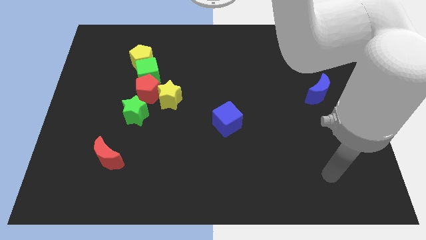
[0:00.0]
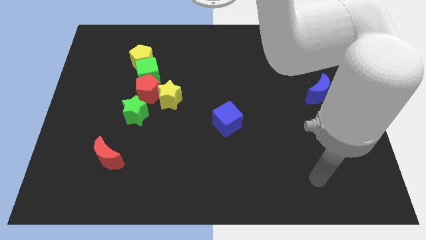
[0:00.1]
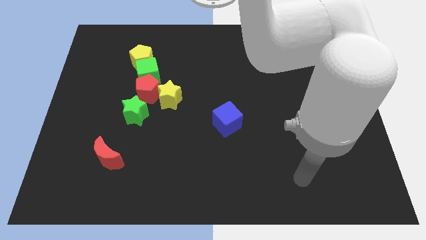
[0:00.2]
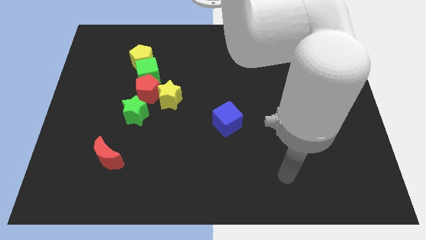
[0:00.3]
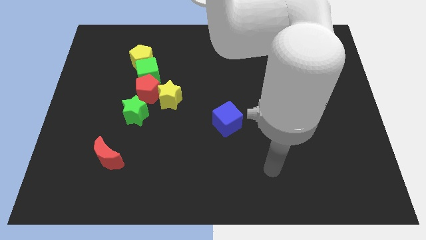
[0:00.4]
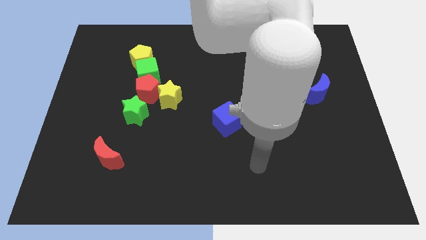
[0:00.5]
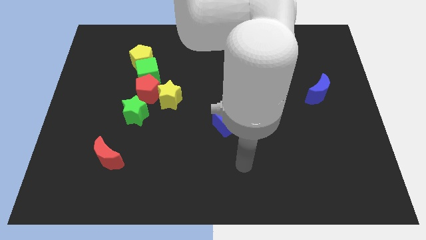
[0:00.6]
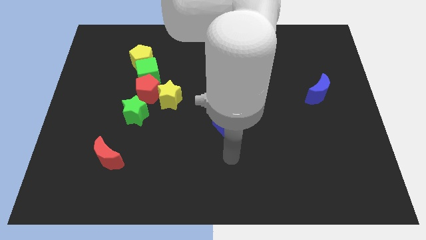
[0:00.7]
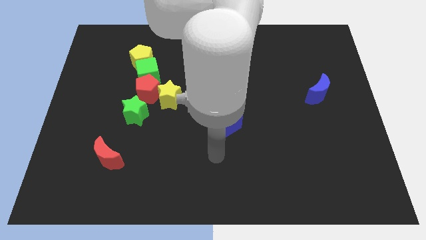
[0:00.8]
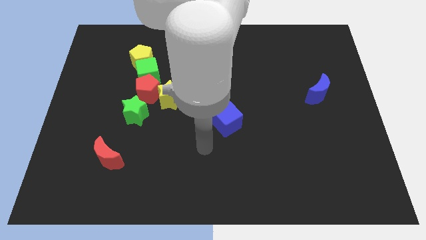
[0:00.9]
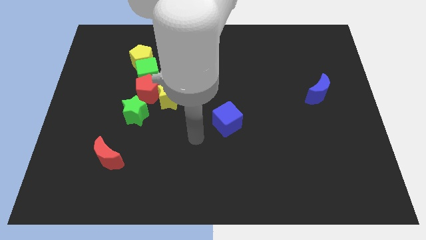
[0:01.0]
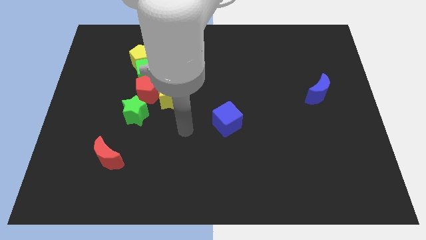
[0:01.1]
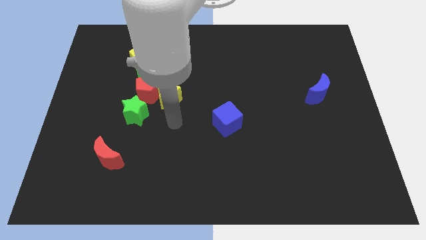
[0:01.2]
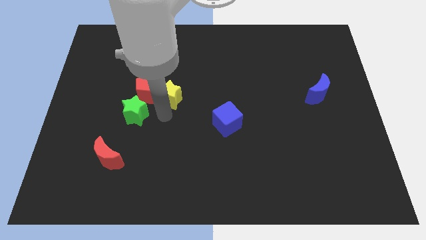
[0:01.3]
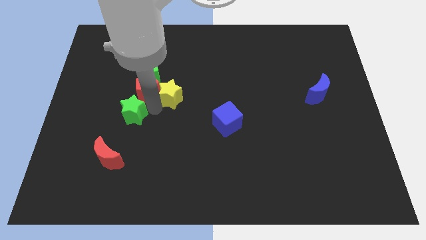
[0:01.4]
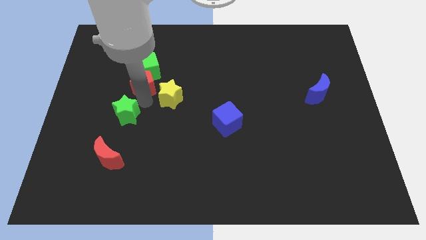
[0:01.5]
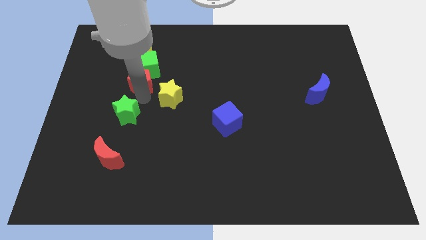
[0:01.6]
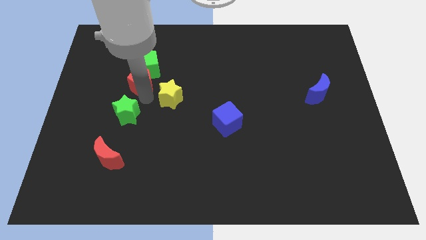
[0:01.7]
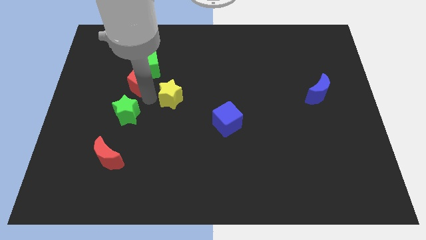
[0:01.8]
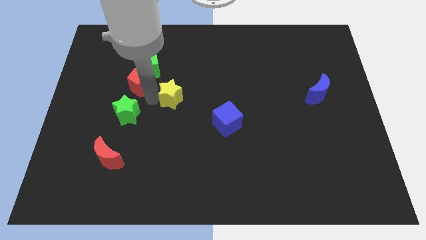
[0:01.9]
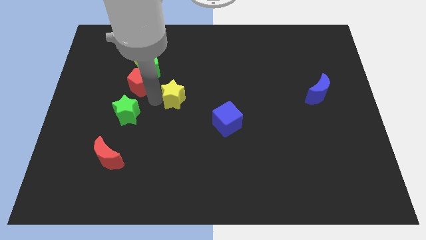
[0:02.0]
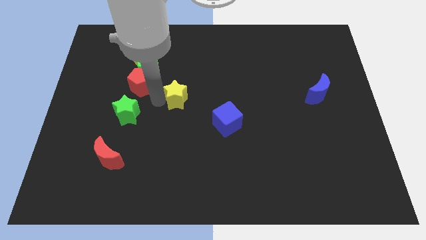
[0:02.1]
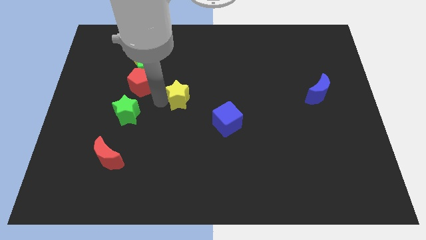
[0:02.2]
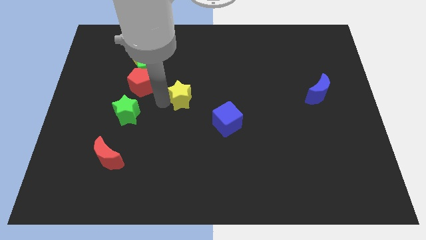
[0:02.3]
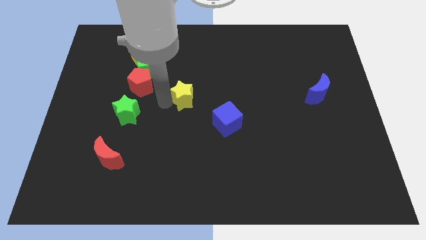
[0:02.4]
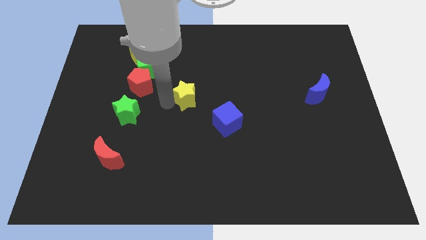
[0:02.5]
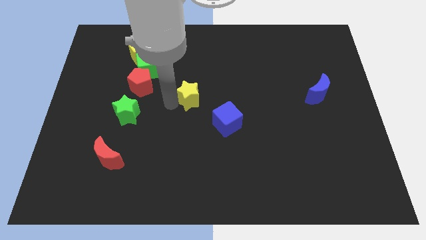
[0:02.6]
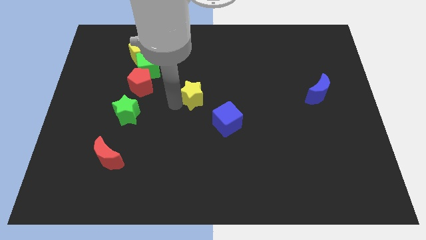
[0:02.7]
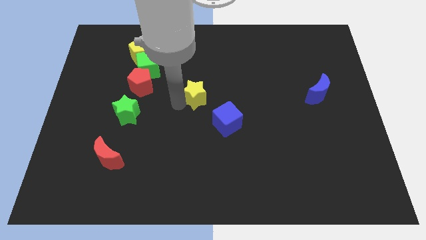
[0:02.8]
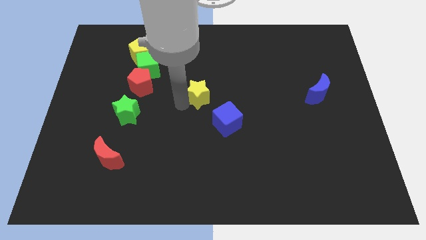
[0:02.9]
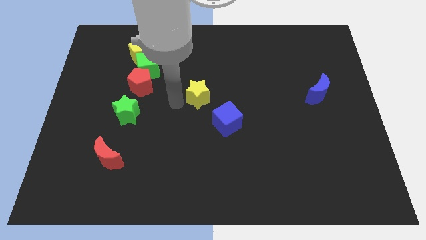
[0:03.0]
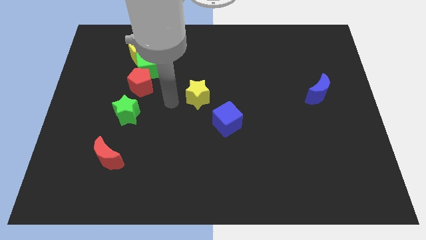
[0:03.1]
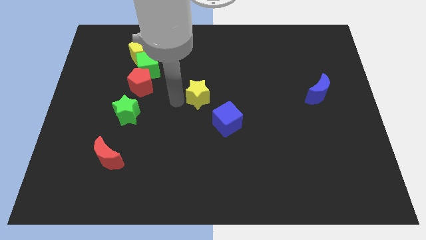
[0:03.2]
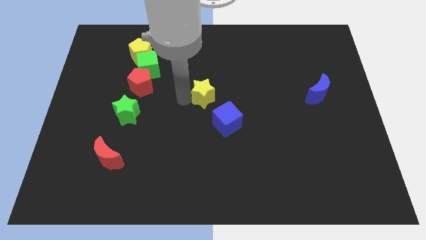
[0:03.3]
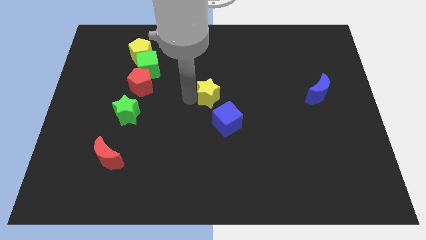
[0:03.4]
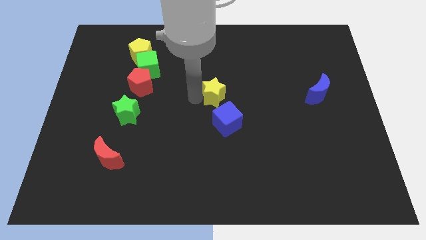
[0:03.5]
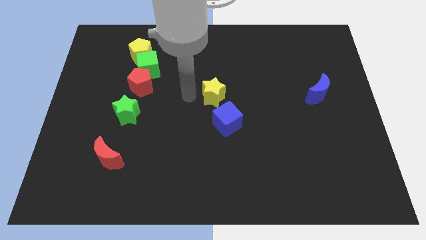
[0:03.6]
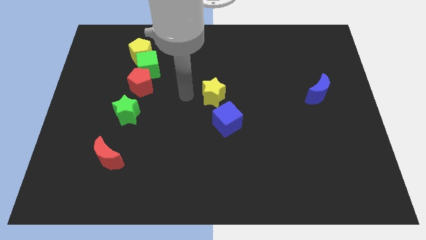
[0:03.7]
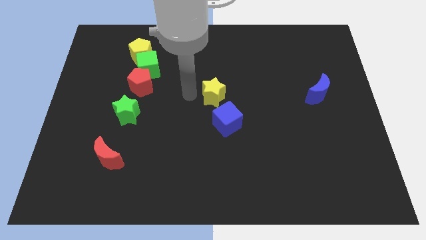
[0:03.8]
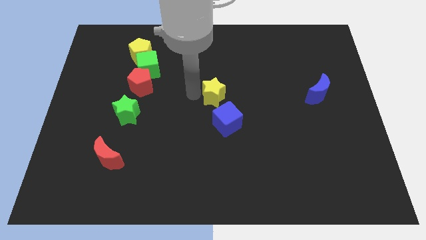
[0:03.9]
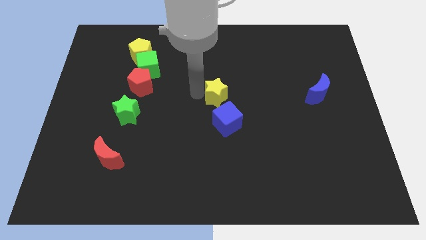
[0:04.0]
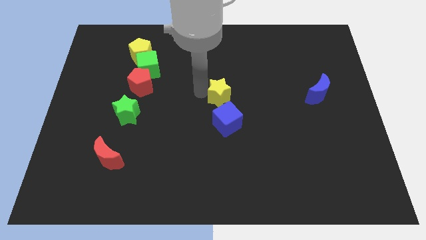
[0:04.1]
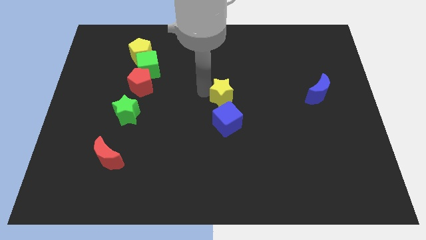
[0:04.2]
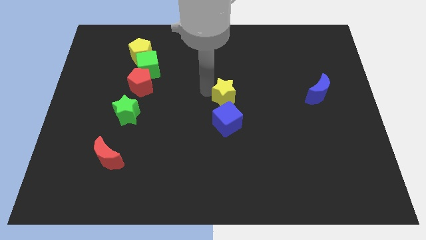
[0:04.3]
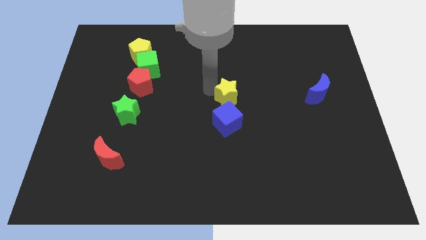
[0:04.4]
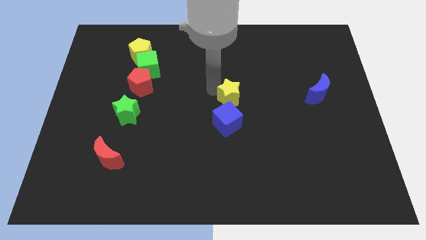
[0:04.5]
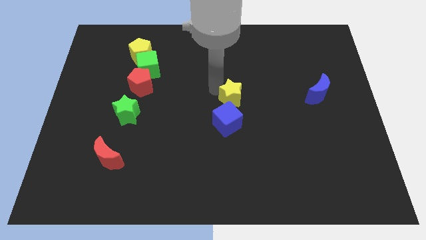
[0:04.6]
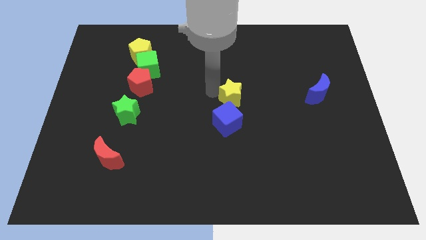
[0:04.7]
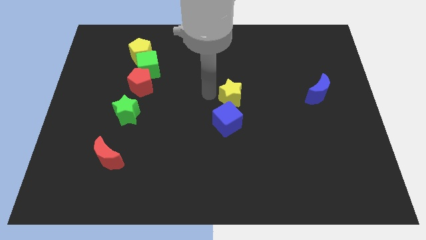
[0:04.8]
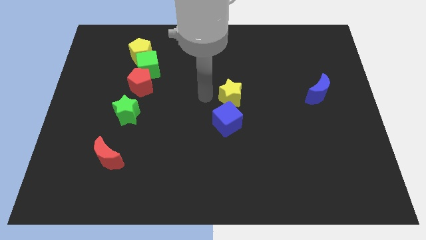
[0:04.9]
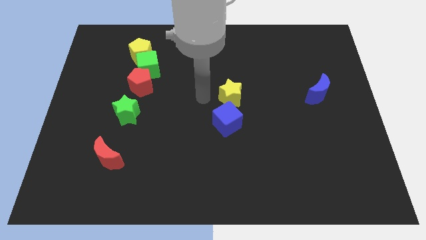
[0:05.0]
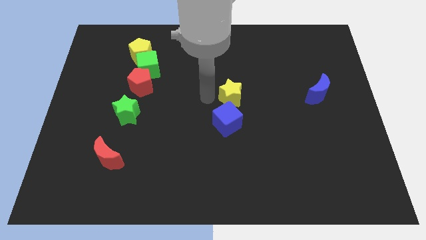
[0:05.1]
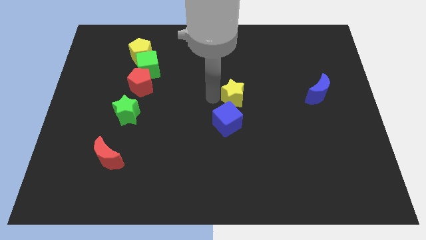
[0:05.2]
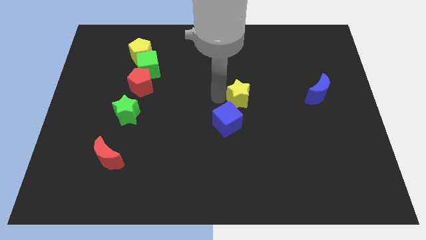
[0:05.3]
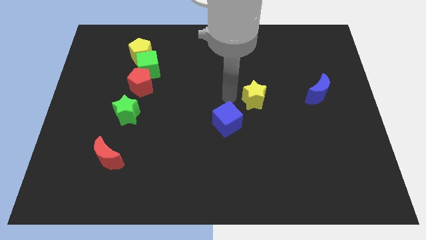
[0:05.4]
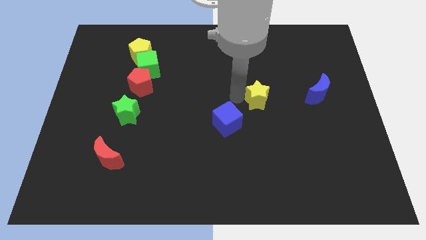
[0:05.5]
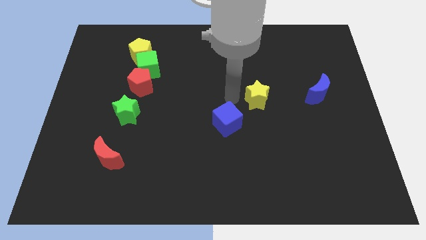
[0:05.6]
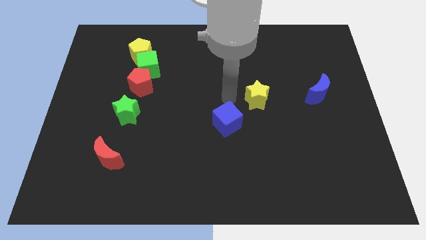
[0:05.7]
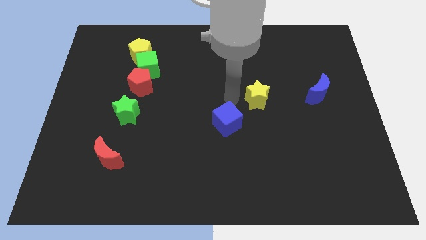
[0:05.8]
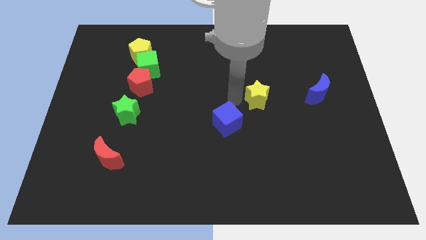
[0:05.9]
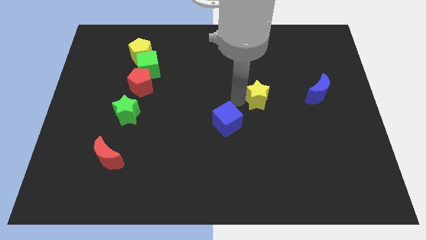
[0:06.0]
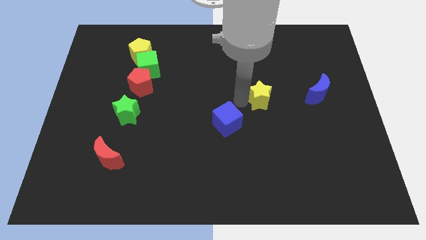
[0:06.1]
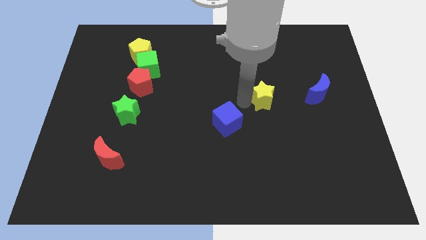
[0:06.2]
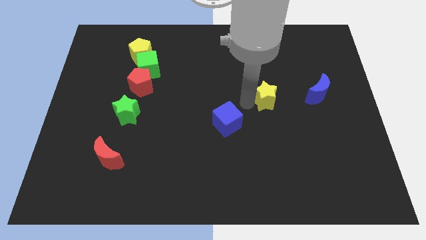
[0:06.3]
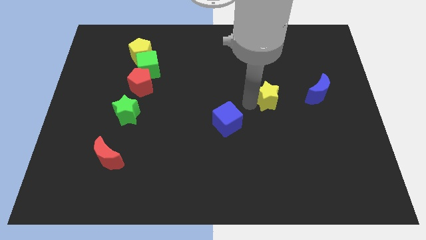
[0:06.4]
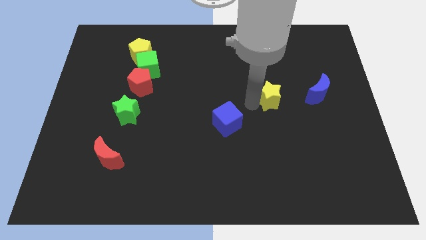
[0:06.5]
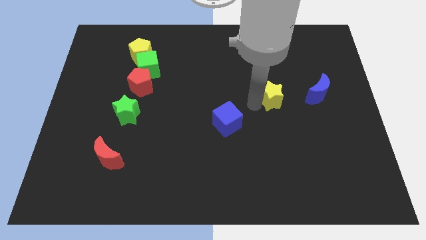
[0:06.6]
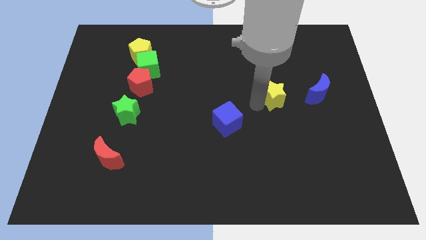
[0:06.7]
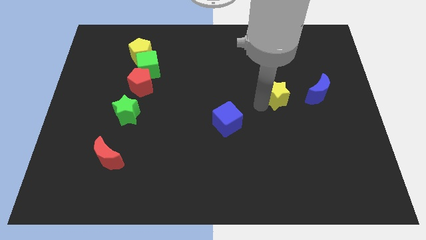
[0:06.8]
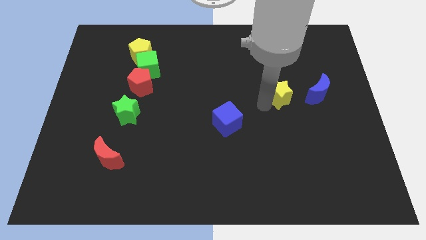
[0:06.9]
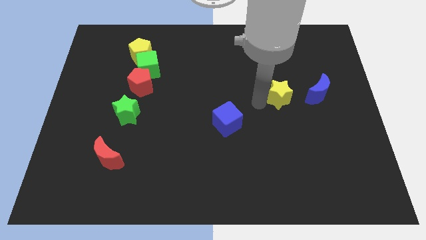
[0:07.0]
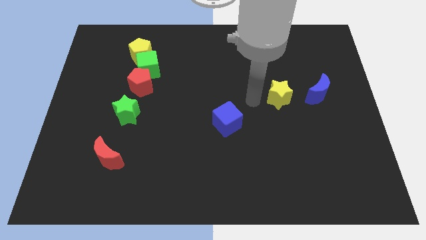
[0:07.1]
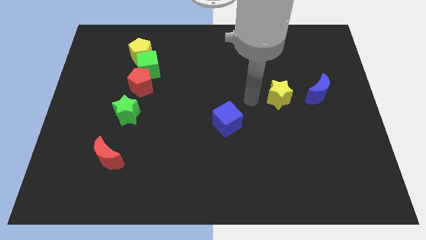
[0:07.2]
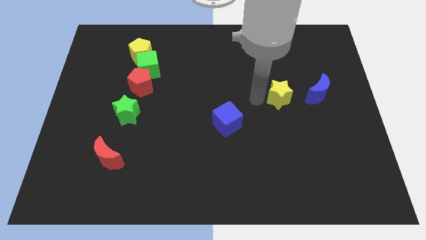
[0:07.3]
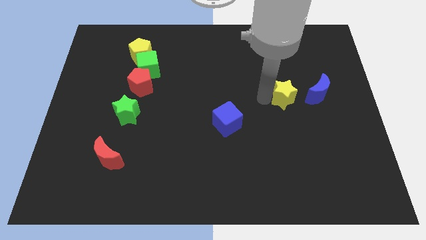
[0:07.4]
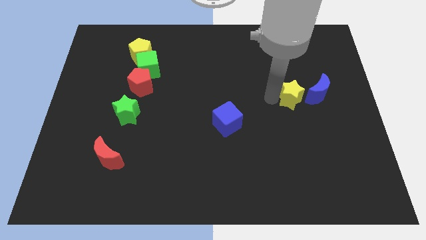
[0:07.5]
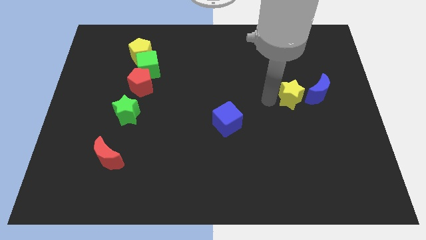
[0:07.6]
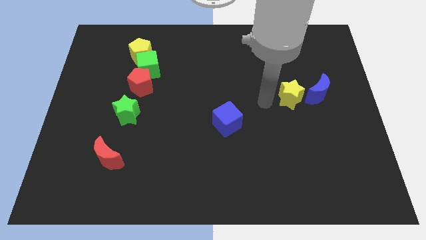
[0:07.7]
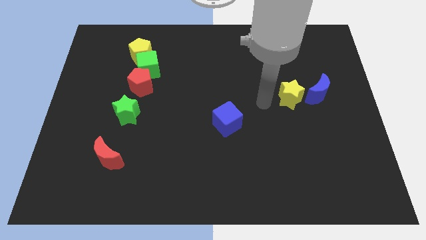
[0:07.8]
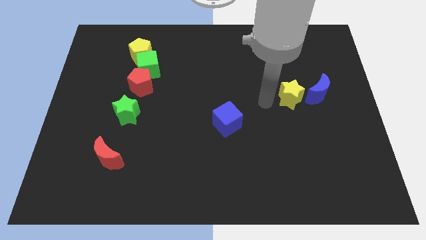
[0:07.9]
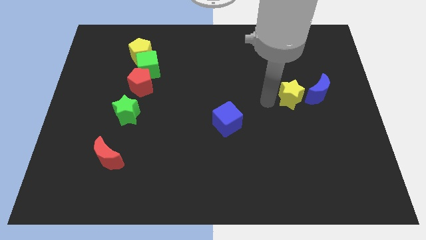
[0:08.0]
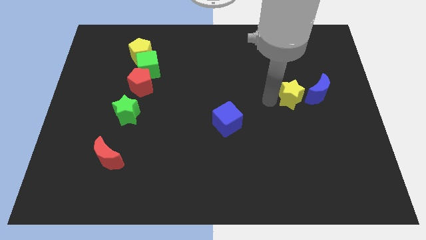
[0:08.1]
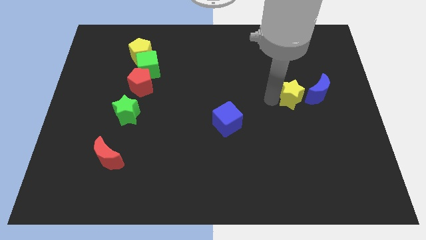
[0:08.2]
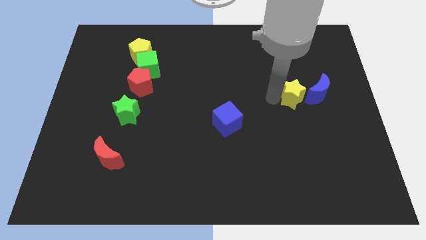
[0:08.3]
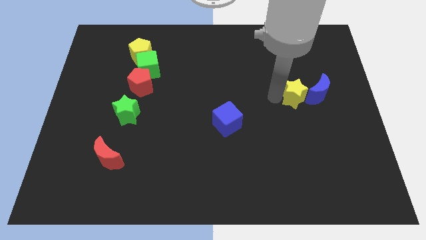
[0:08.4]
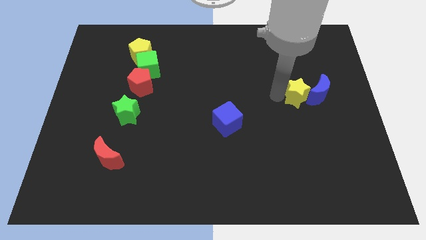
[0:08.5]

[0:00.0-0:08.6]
push the yellow star close to the blue moon
